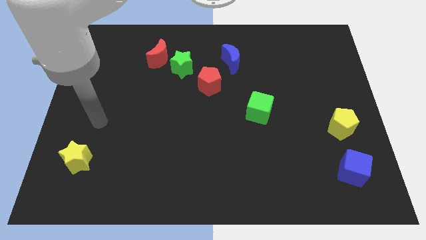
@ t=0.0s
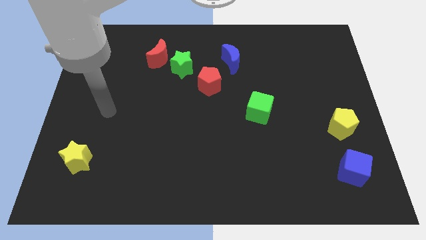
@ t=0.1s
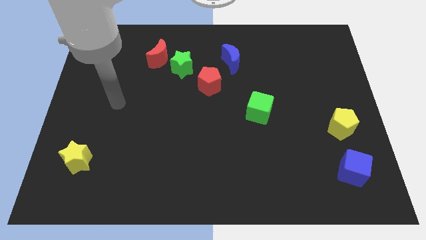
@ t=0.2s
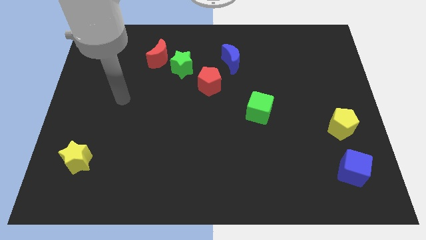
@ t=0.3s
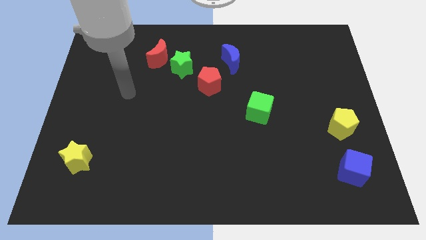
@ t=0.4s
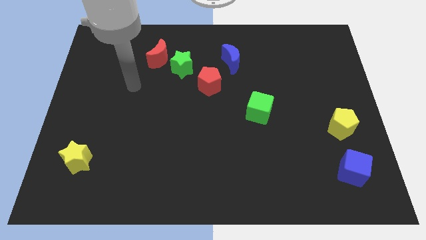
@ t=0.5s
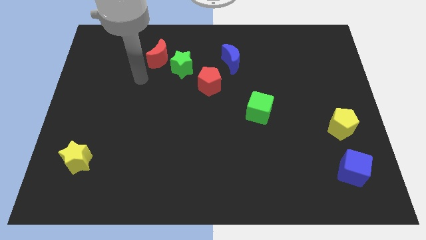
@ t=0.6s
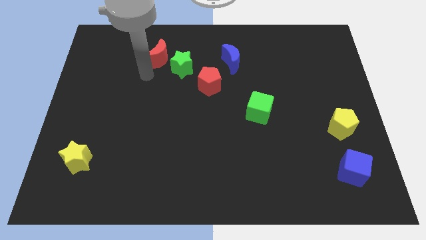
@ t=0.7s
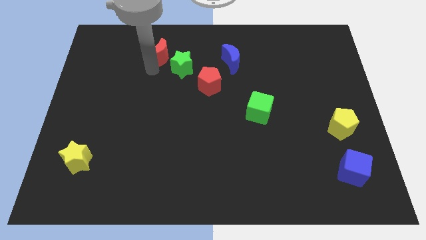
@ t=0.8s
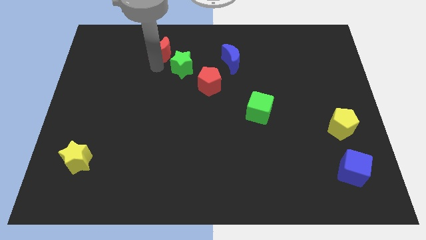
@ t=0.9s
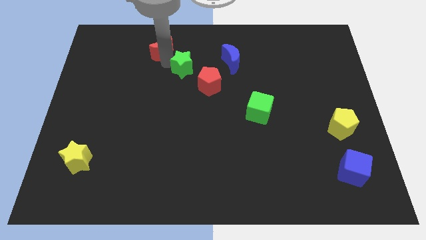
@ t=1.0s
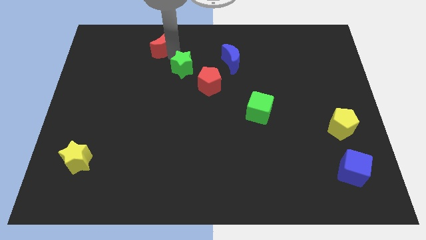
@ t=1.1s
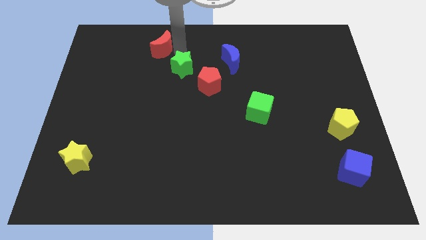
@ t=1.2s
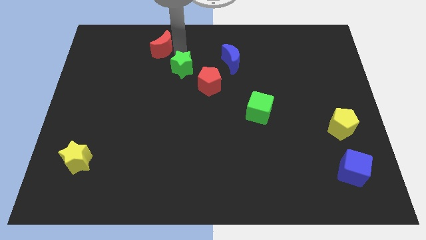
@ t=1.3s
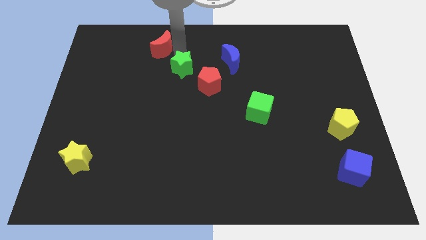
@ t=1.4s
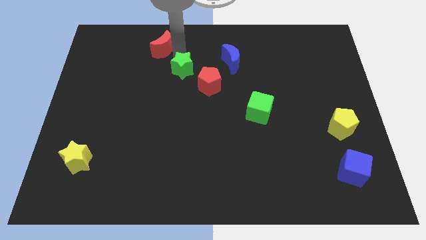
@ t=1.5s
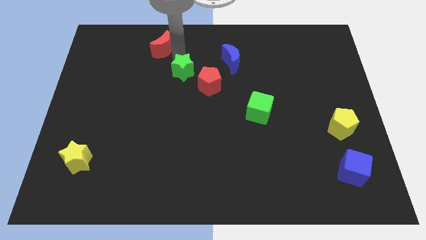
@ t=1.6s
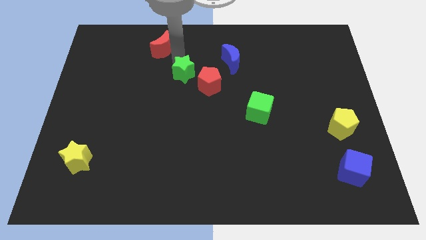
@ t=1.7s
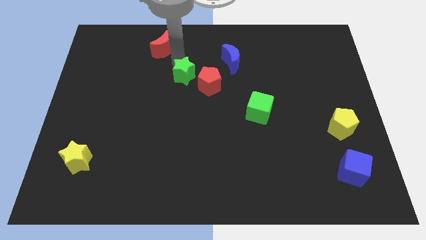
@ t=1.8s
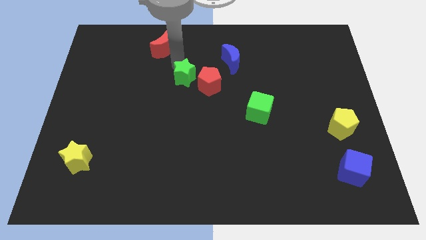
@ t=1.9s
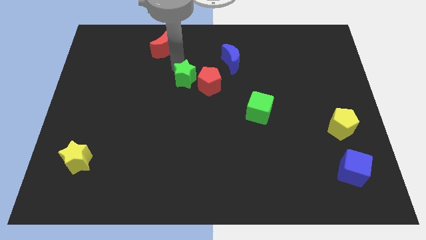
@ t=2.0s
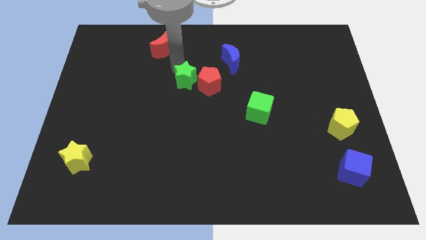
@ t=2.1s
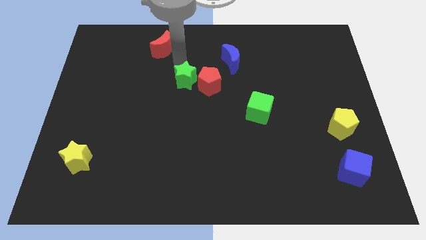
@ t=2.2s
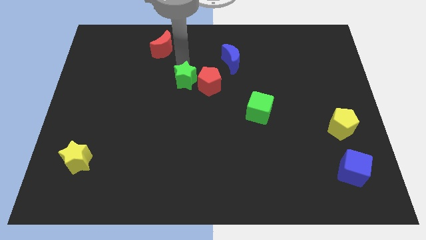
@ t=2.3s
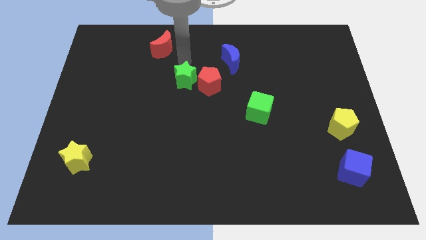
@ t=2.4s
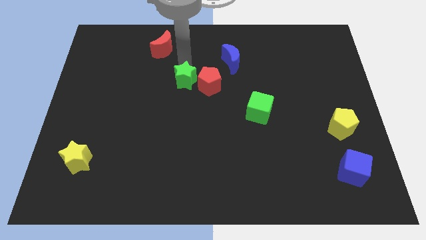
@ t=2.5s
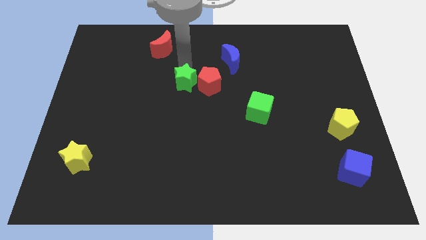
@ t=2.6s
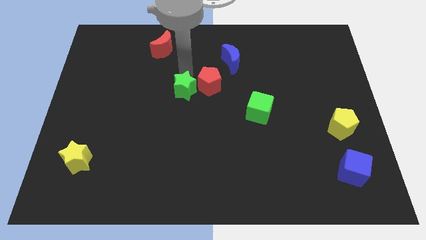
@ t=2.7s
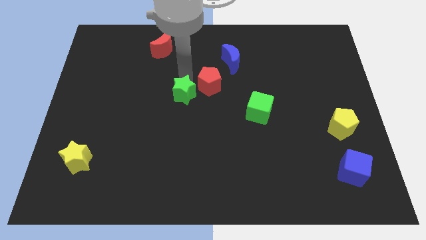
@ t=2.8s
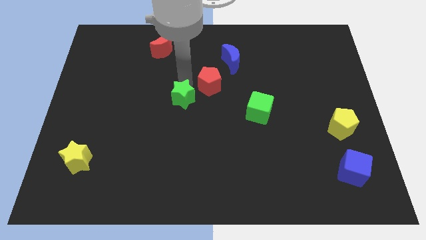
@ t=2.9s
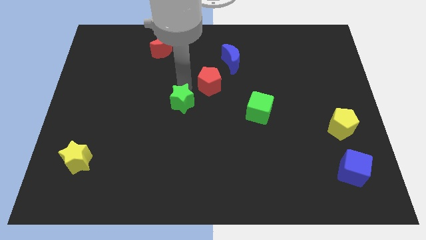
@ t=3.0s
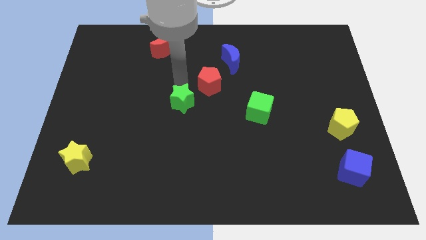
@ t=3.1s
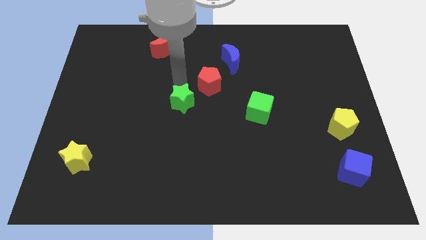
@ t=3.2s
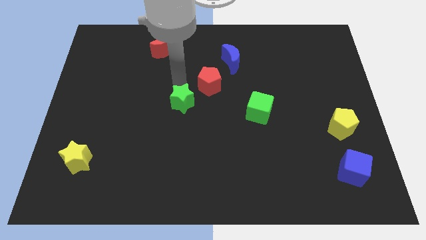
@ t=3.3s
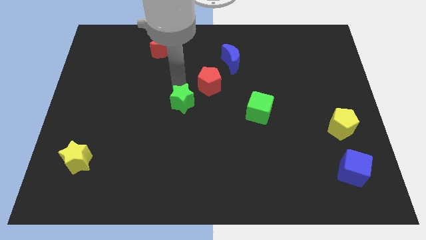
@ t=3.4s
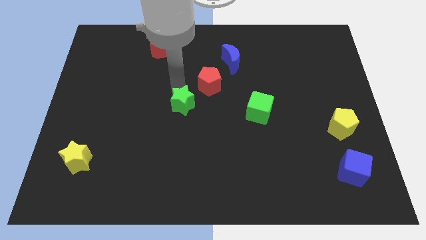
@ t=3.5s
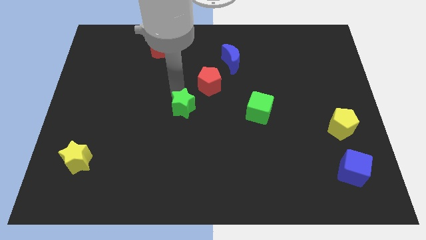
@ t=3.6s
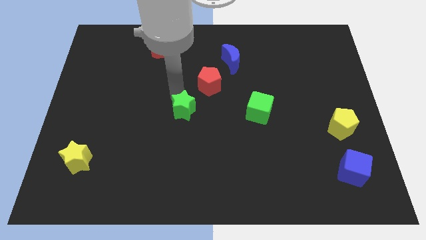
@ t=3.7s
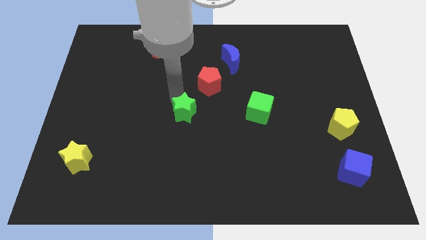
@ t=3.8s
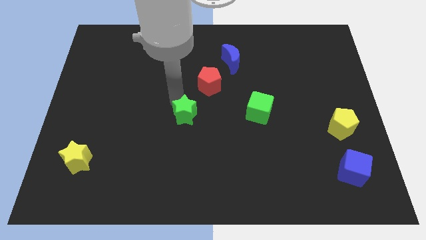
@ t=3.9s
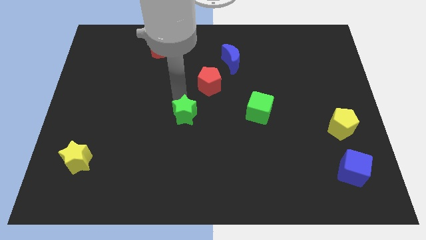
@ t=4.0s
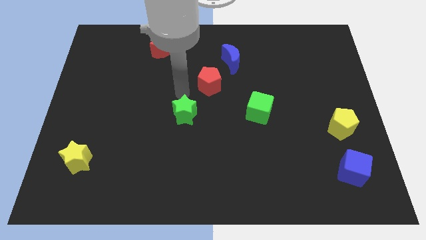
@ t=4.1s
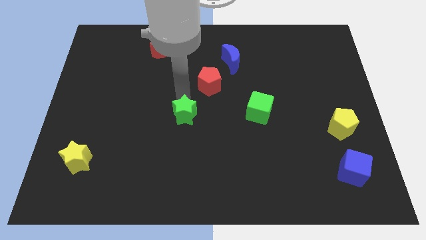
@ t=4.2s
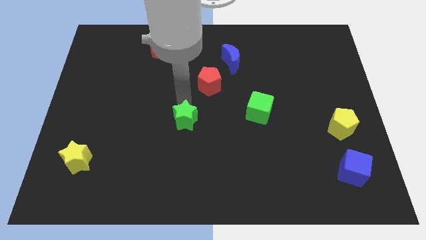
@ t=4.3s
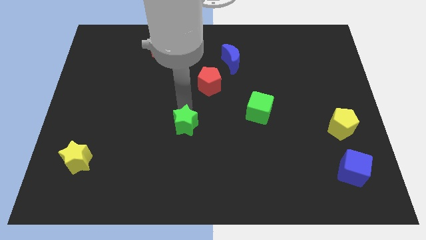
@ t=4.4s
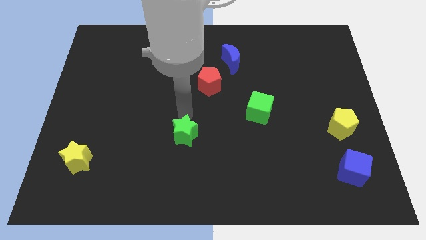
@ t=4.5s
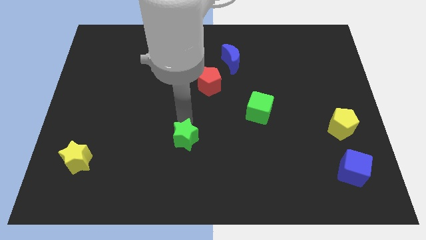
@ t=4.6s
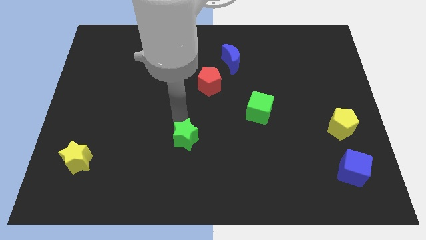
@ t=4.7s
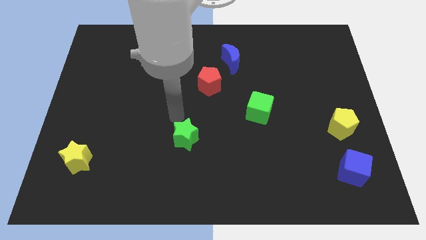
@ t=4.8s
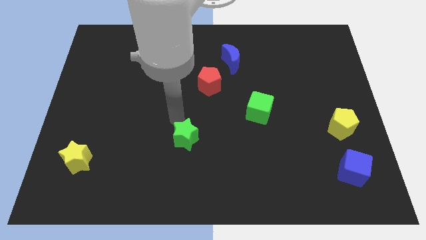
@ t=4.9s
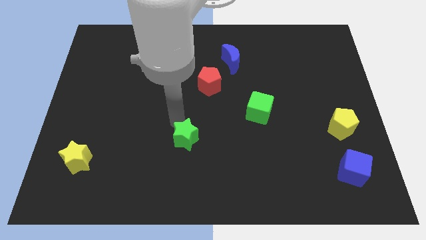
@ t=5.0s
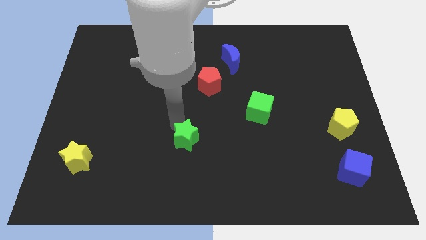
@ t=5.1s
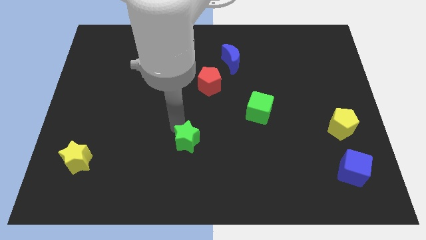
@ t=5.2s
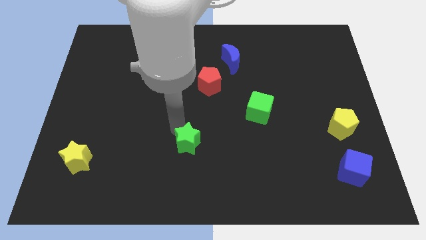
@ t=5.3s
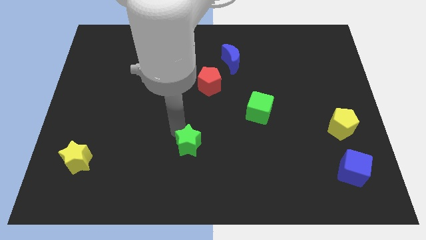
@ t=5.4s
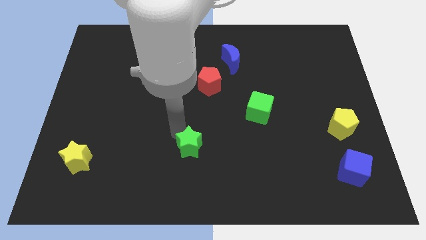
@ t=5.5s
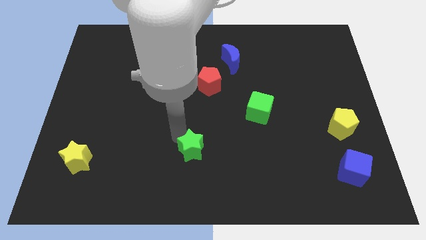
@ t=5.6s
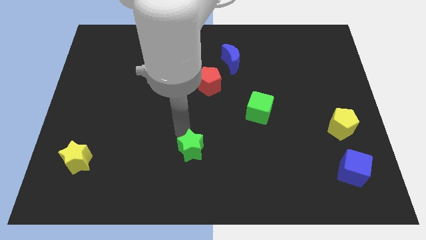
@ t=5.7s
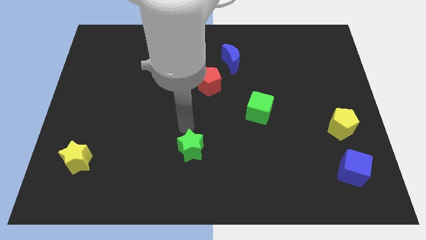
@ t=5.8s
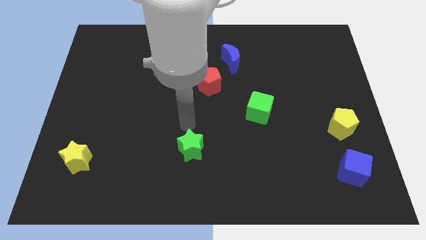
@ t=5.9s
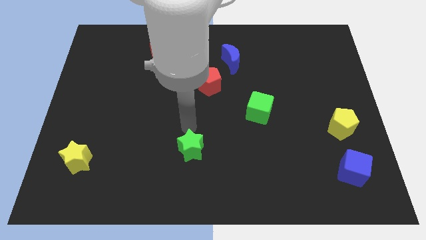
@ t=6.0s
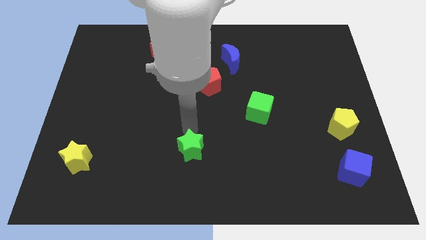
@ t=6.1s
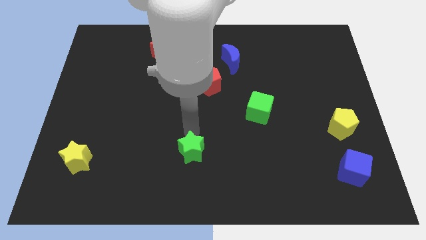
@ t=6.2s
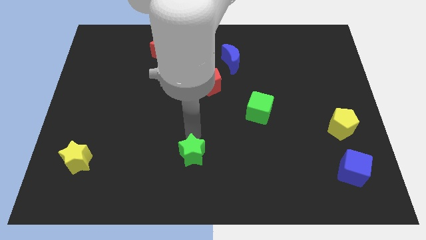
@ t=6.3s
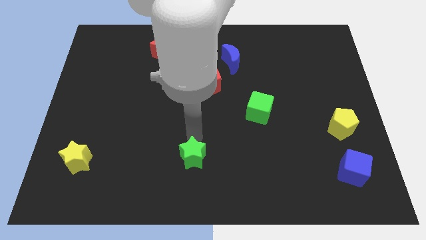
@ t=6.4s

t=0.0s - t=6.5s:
move the green star to the bottom
